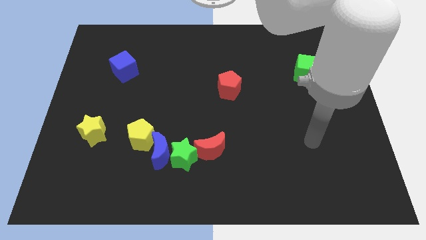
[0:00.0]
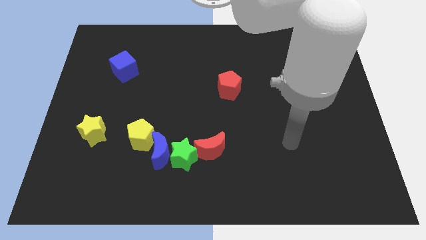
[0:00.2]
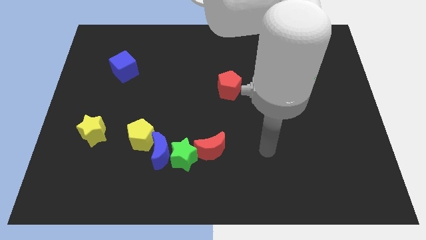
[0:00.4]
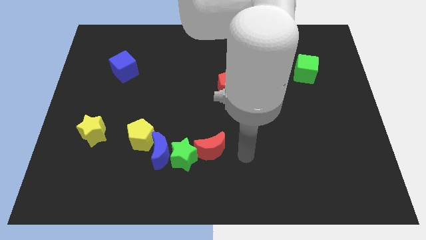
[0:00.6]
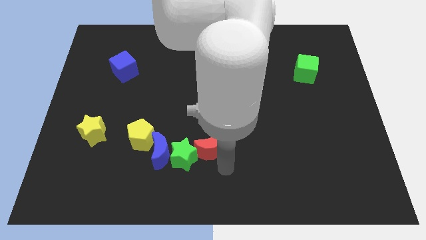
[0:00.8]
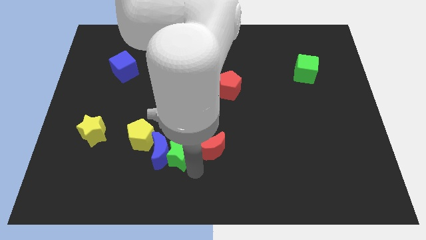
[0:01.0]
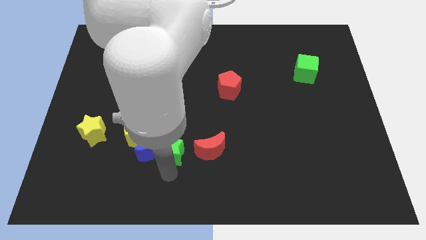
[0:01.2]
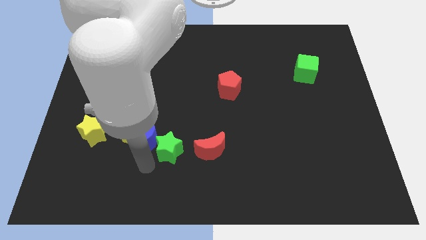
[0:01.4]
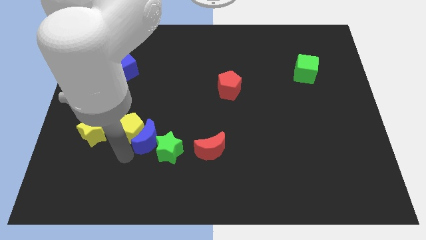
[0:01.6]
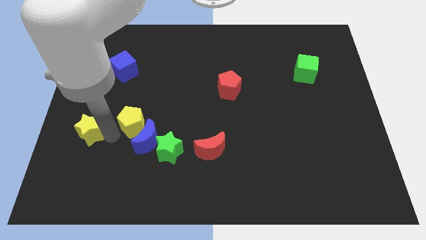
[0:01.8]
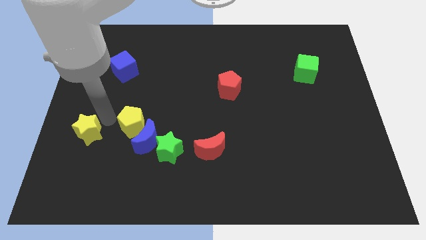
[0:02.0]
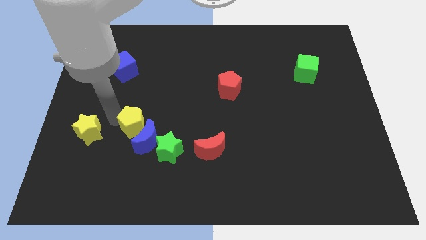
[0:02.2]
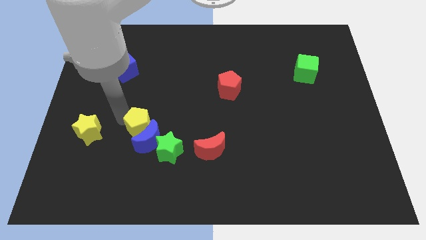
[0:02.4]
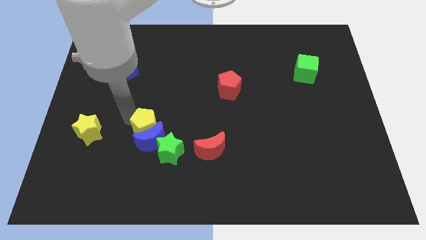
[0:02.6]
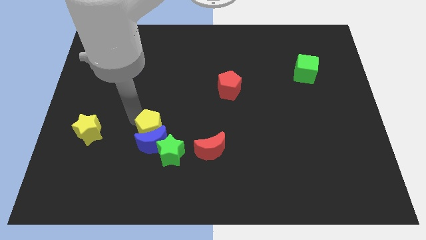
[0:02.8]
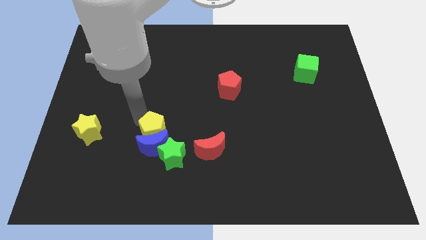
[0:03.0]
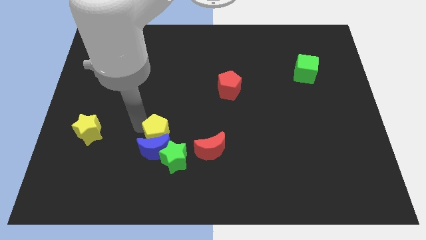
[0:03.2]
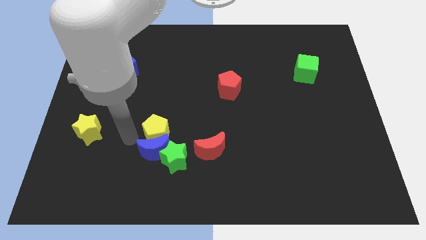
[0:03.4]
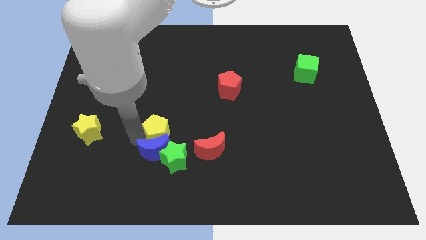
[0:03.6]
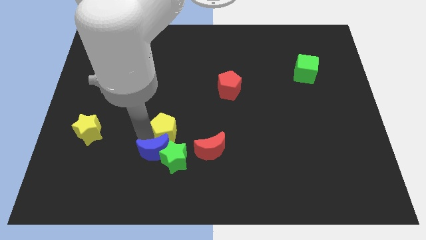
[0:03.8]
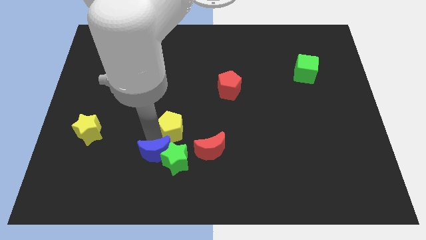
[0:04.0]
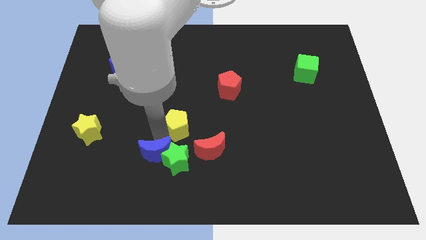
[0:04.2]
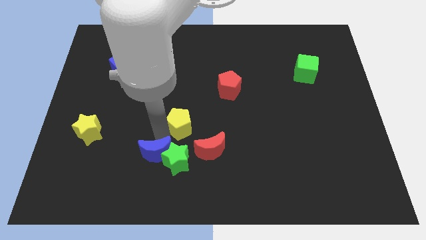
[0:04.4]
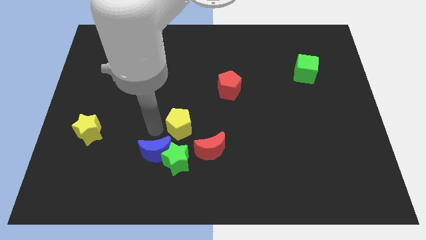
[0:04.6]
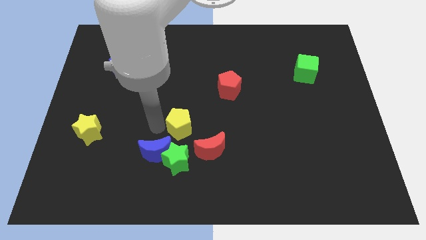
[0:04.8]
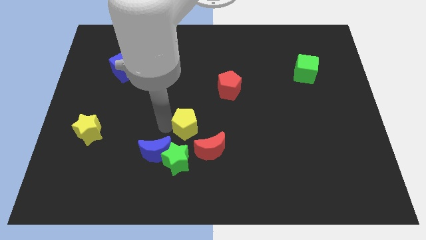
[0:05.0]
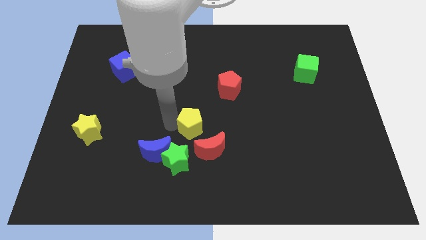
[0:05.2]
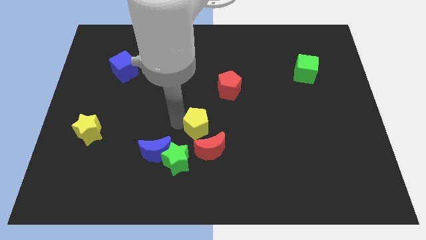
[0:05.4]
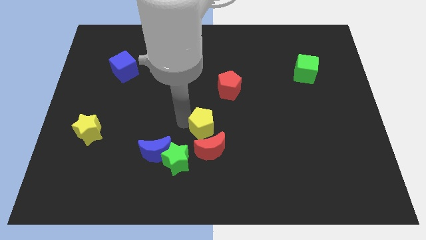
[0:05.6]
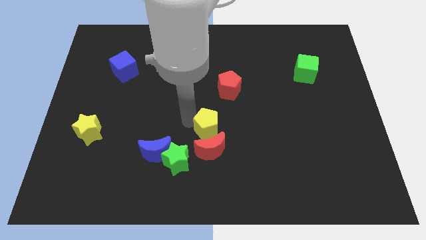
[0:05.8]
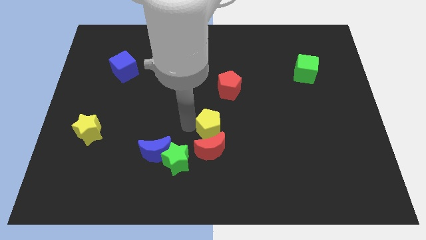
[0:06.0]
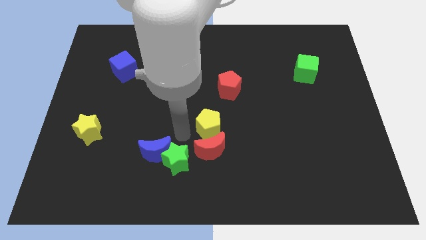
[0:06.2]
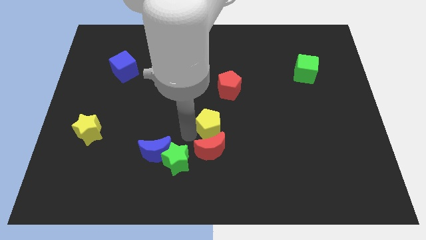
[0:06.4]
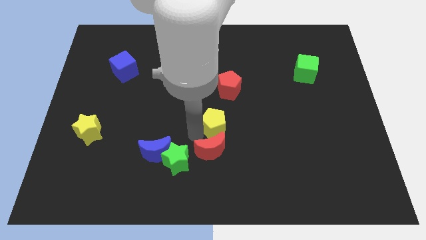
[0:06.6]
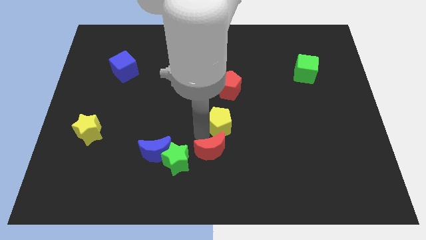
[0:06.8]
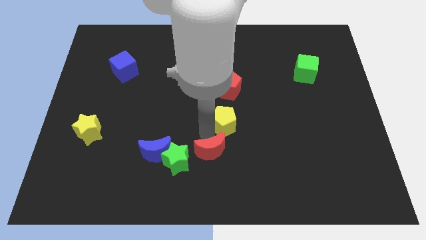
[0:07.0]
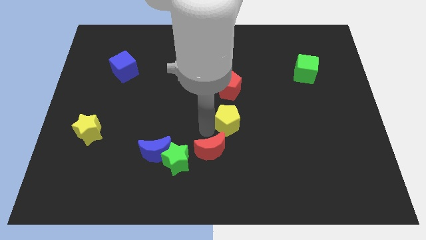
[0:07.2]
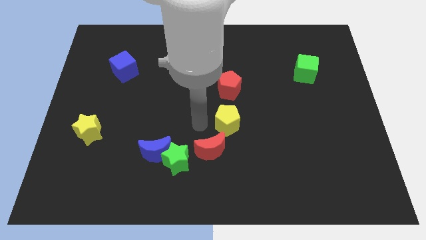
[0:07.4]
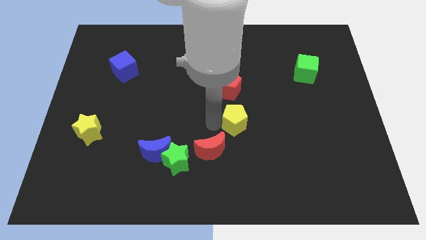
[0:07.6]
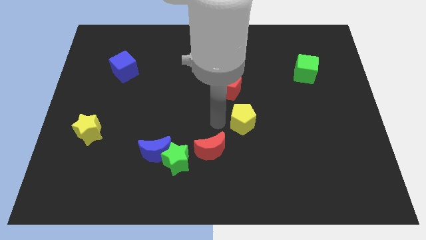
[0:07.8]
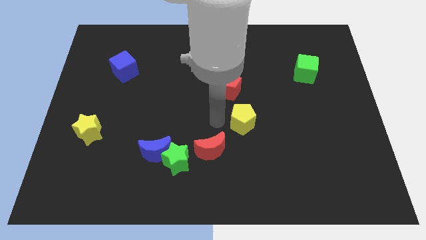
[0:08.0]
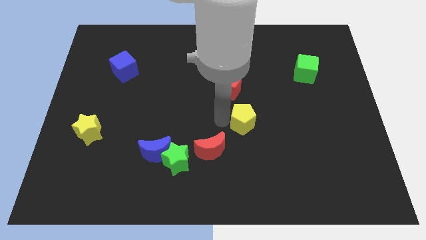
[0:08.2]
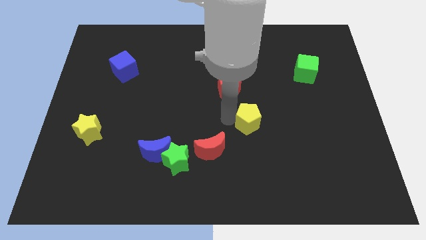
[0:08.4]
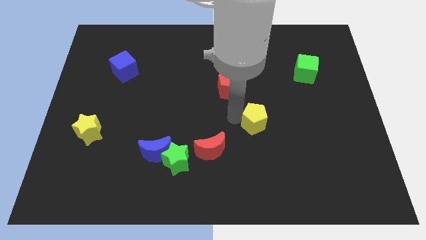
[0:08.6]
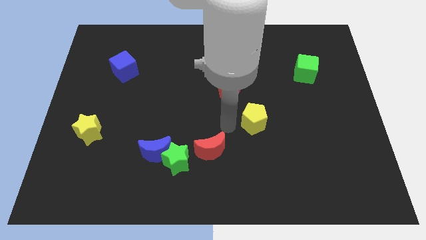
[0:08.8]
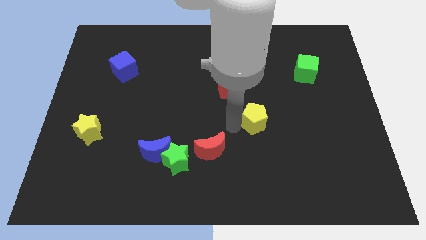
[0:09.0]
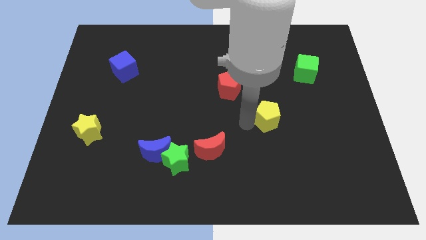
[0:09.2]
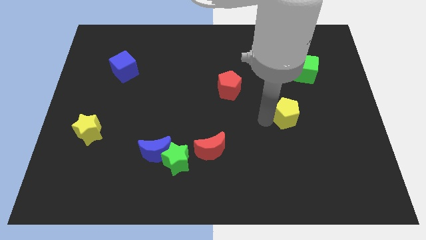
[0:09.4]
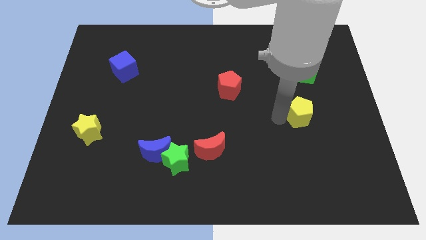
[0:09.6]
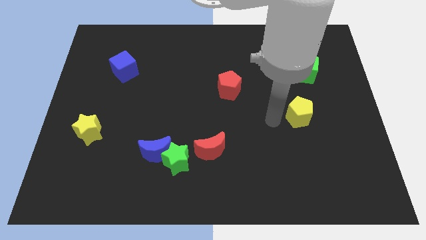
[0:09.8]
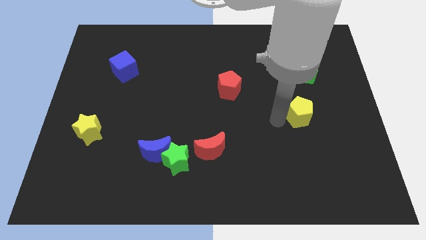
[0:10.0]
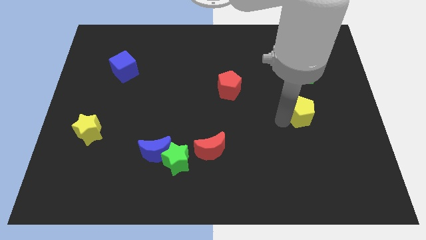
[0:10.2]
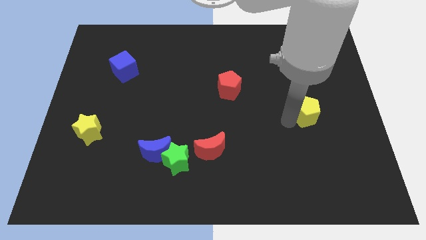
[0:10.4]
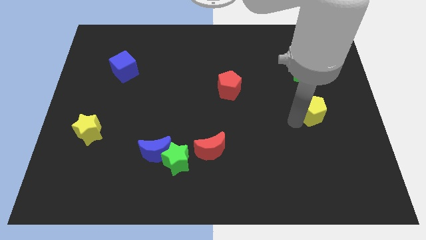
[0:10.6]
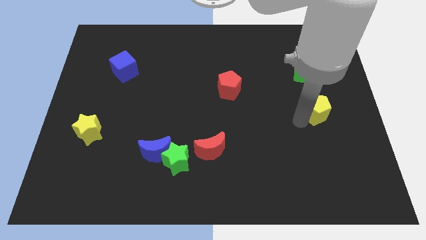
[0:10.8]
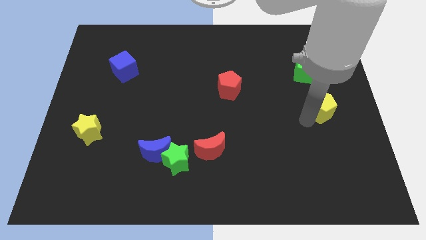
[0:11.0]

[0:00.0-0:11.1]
put the yellow pentagon to the right side

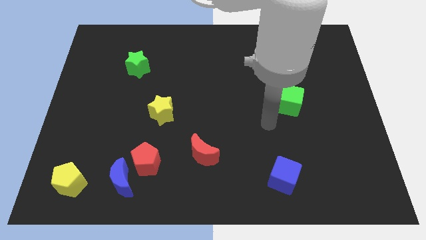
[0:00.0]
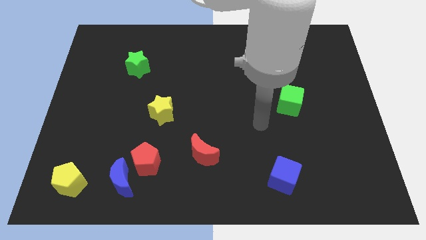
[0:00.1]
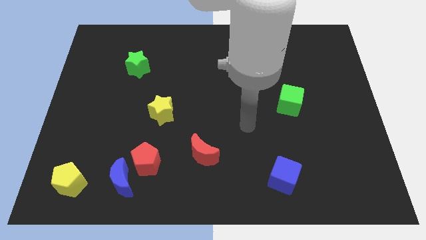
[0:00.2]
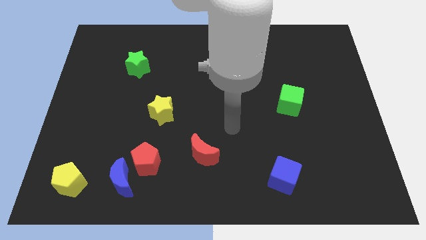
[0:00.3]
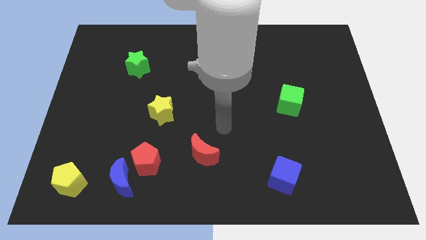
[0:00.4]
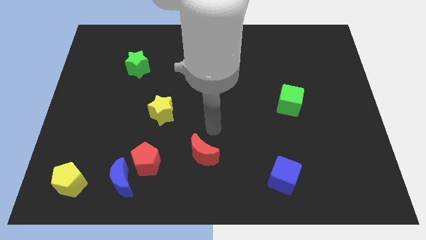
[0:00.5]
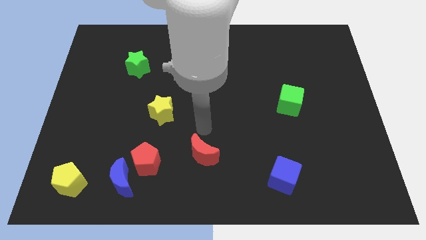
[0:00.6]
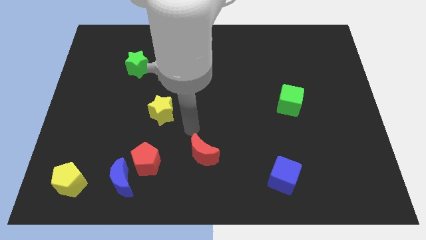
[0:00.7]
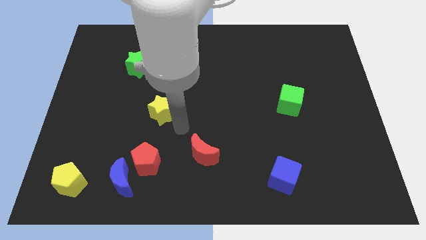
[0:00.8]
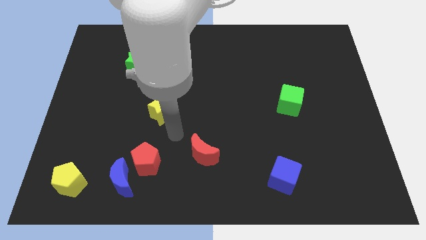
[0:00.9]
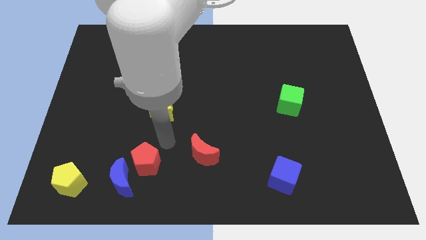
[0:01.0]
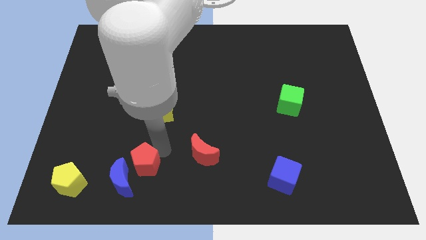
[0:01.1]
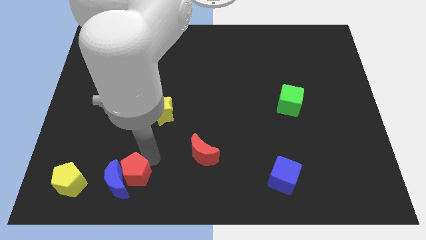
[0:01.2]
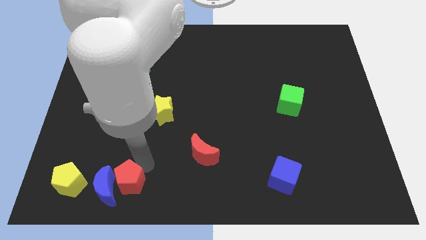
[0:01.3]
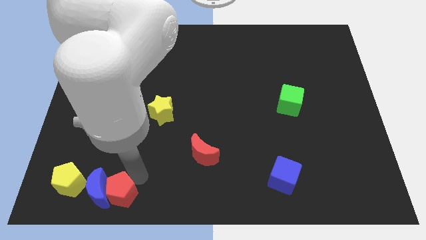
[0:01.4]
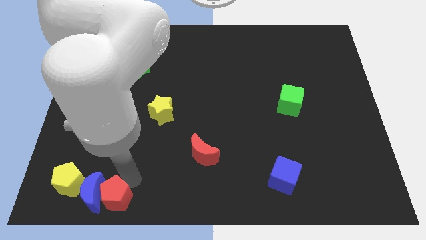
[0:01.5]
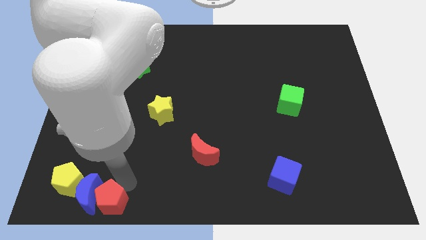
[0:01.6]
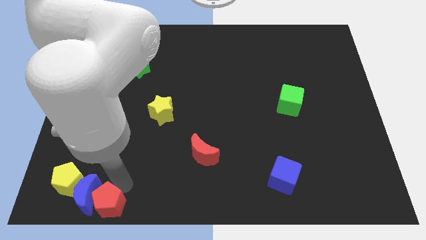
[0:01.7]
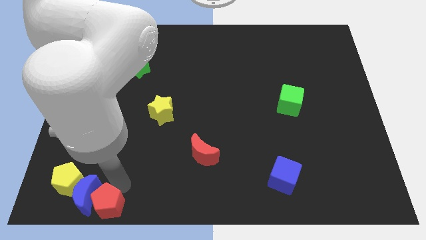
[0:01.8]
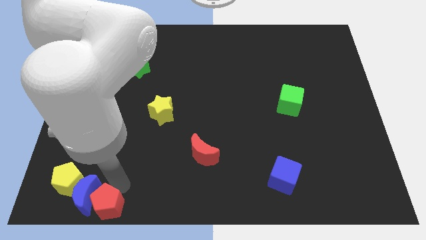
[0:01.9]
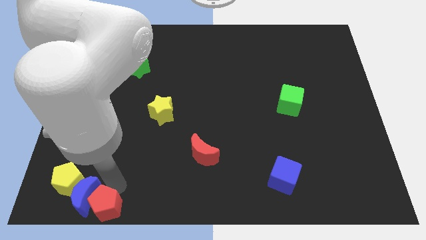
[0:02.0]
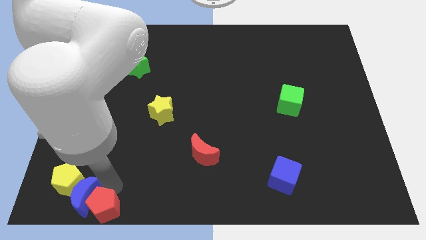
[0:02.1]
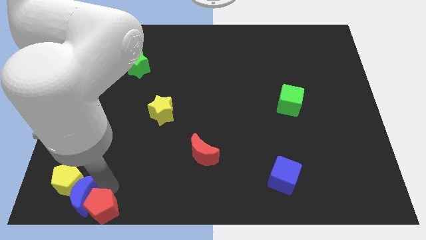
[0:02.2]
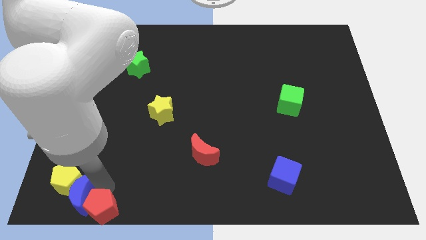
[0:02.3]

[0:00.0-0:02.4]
slide the blue moon to the bottom left corner
